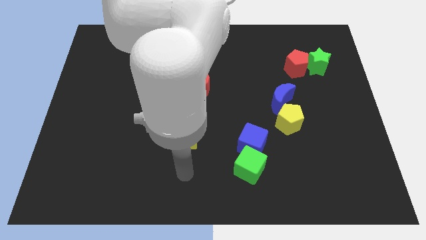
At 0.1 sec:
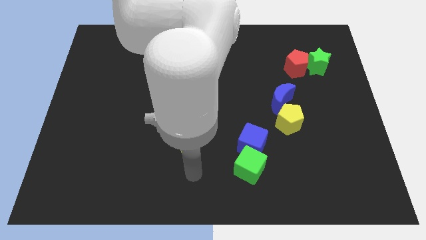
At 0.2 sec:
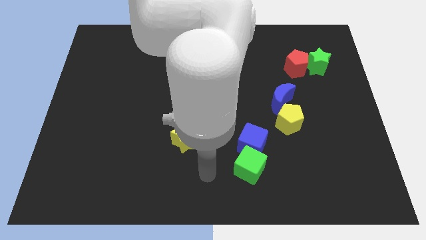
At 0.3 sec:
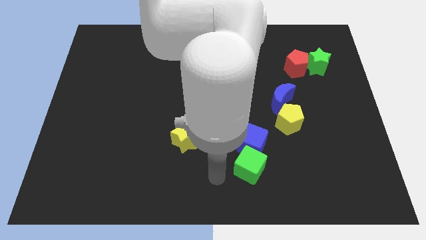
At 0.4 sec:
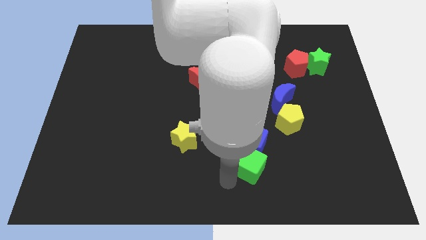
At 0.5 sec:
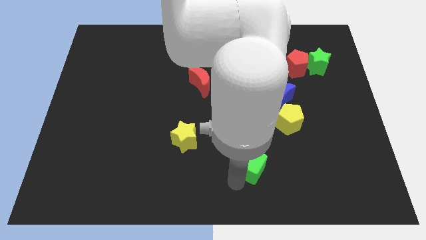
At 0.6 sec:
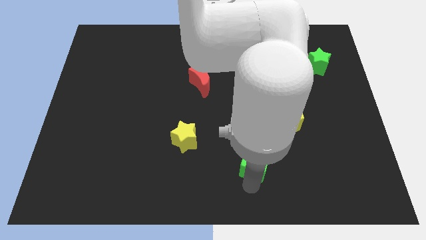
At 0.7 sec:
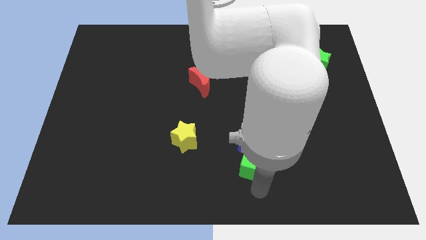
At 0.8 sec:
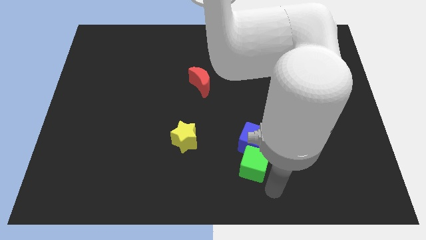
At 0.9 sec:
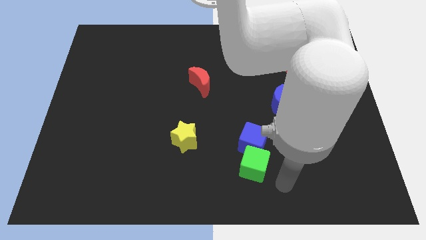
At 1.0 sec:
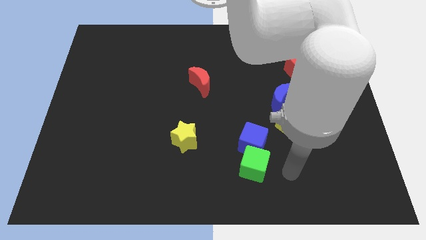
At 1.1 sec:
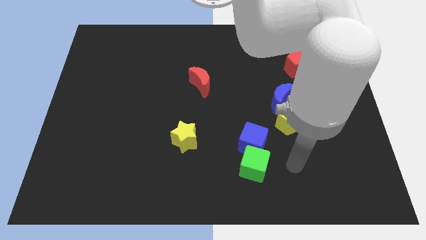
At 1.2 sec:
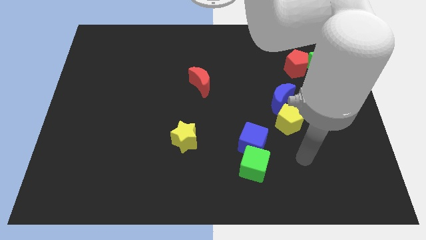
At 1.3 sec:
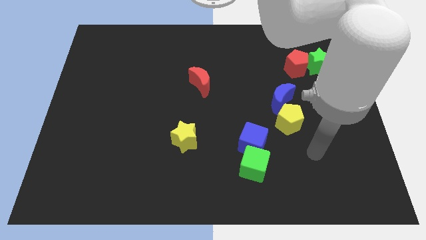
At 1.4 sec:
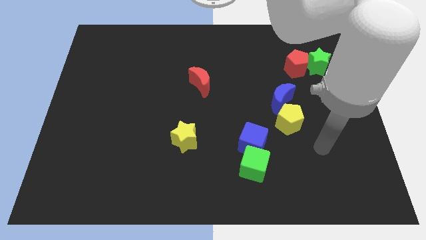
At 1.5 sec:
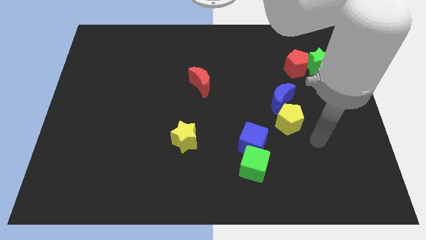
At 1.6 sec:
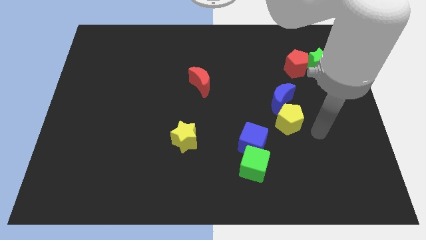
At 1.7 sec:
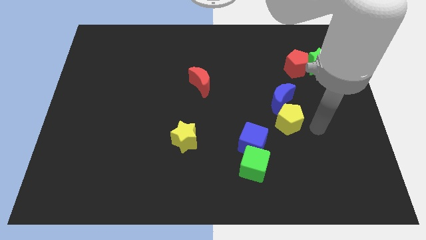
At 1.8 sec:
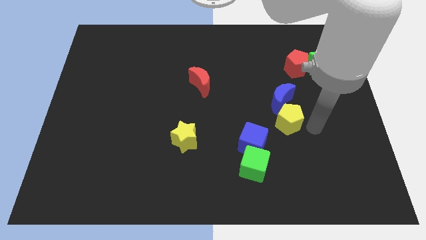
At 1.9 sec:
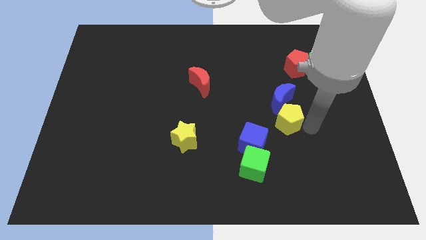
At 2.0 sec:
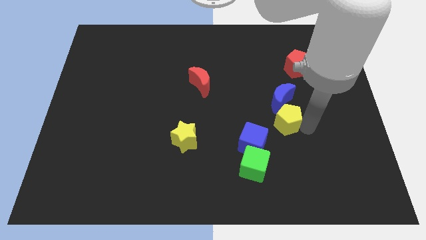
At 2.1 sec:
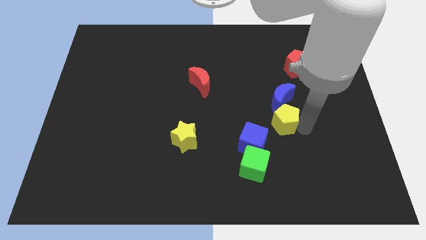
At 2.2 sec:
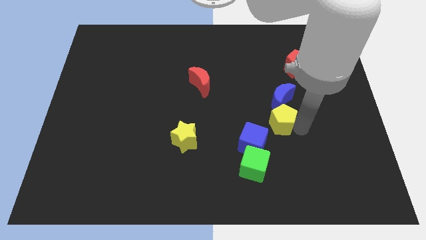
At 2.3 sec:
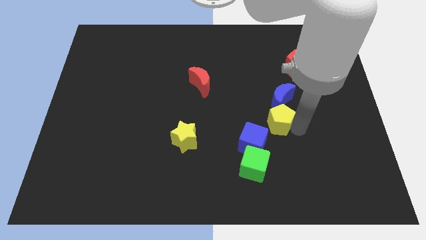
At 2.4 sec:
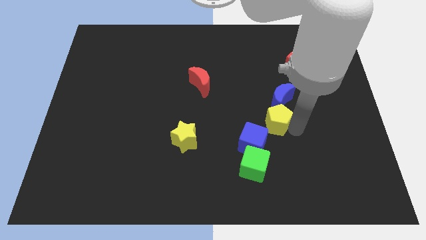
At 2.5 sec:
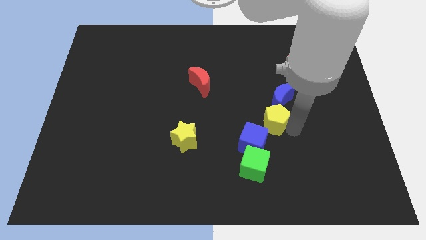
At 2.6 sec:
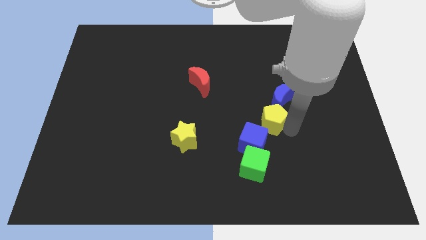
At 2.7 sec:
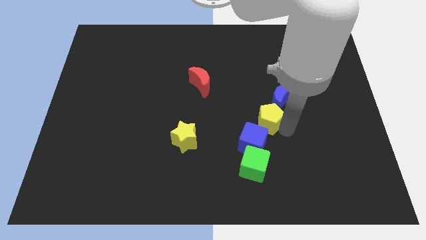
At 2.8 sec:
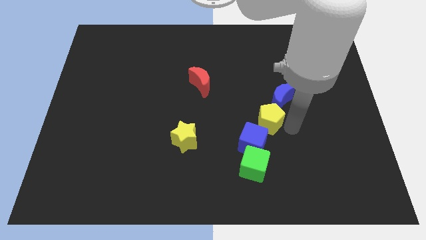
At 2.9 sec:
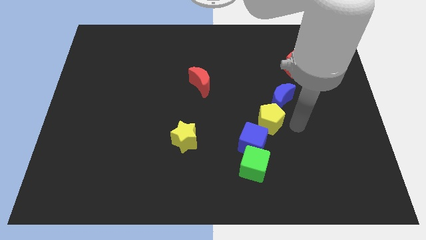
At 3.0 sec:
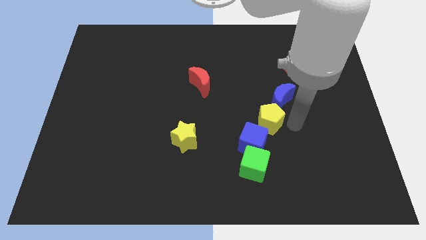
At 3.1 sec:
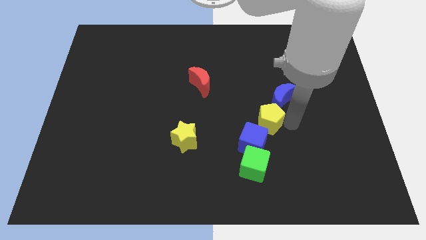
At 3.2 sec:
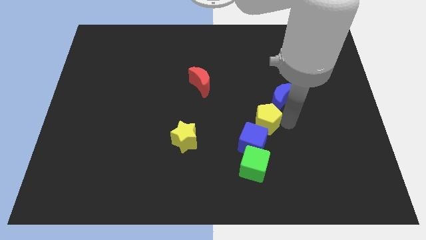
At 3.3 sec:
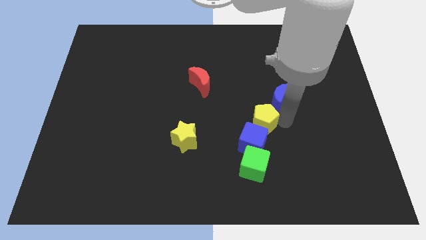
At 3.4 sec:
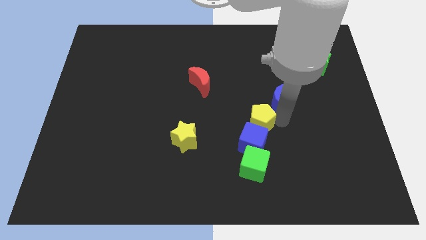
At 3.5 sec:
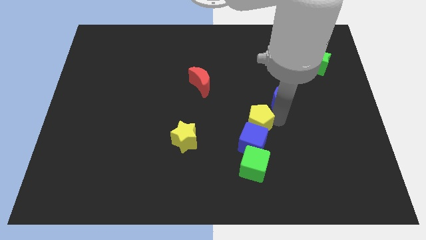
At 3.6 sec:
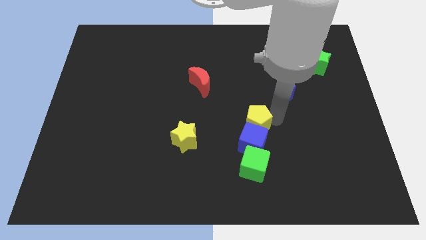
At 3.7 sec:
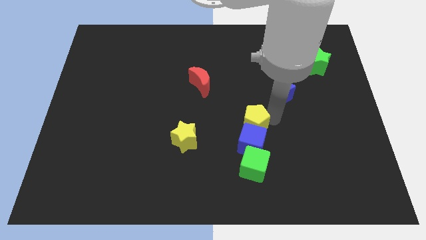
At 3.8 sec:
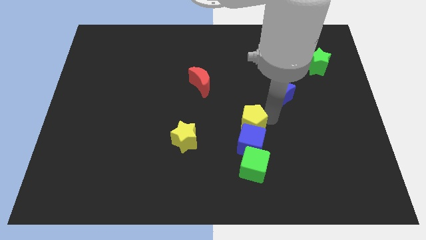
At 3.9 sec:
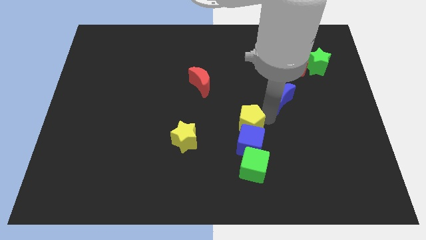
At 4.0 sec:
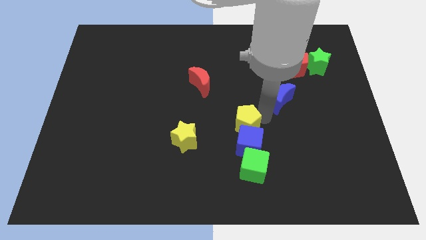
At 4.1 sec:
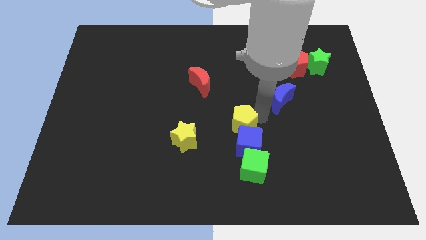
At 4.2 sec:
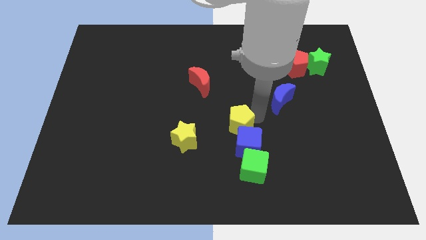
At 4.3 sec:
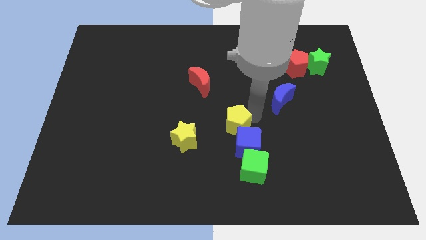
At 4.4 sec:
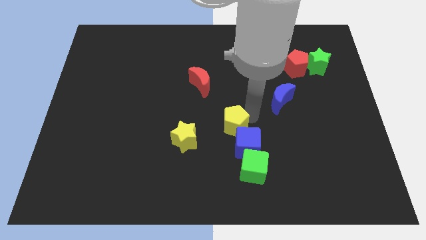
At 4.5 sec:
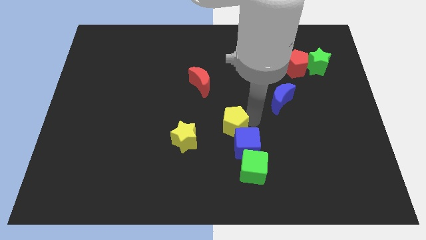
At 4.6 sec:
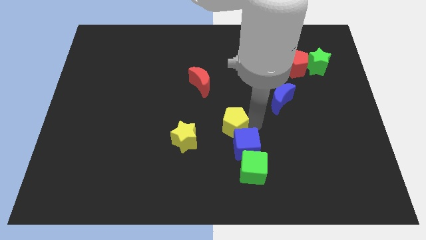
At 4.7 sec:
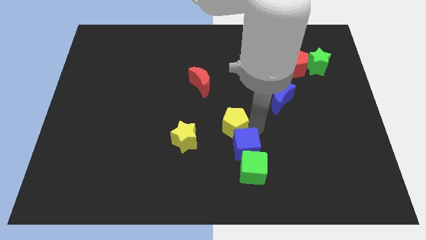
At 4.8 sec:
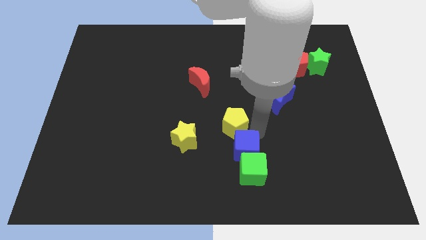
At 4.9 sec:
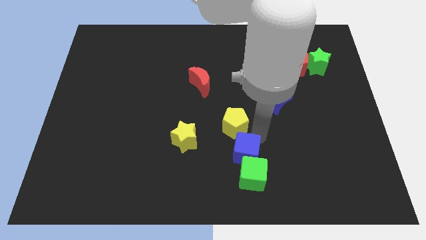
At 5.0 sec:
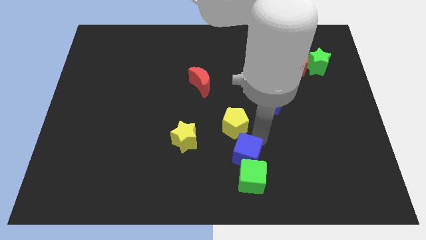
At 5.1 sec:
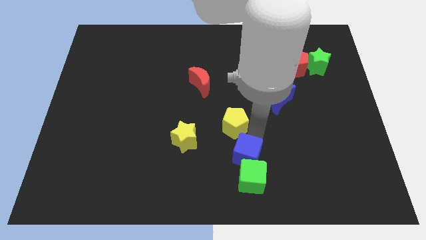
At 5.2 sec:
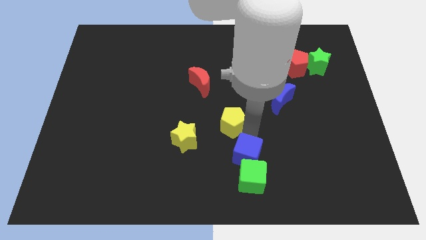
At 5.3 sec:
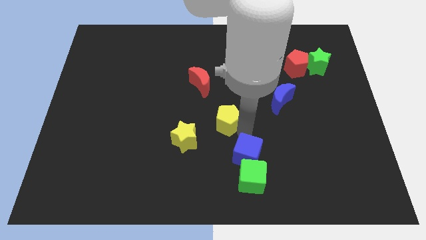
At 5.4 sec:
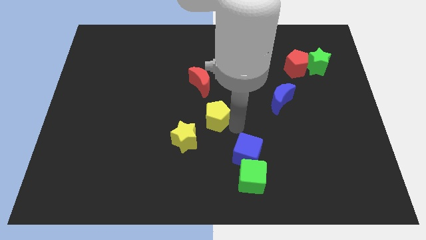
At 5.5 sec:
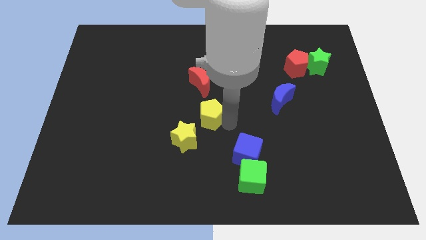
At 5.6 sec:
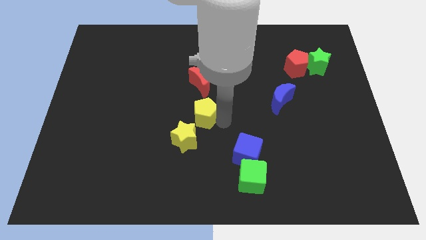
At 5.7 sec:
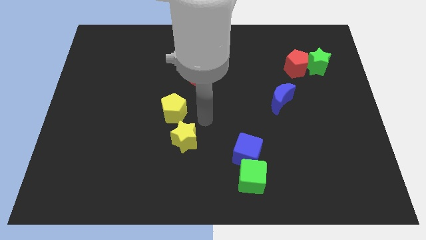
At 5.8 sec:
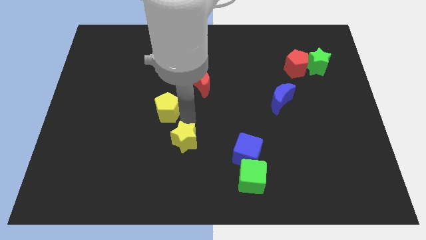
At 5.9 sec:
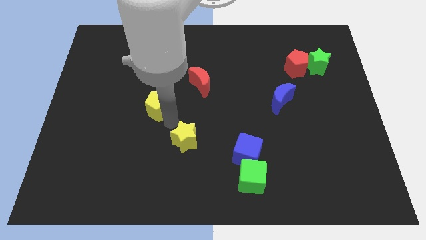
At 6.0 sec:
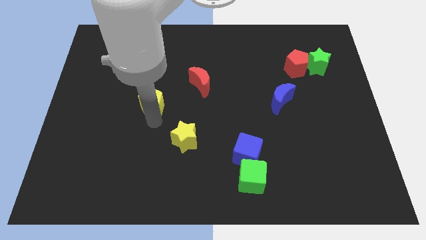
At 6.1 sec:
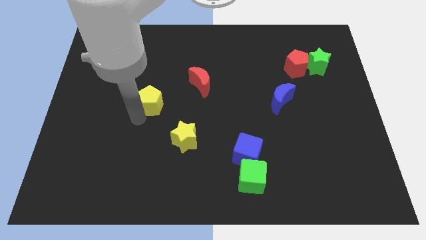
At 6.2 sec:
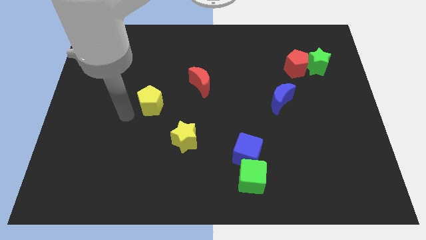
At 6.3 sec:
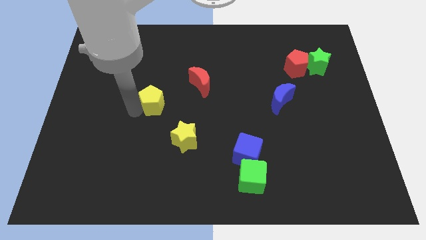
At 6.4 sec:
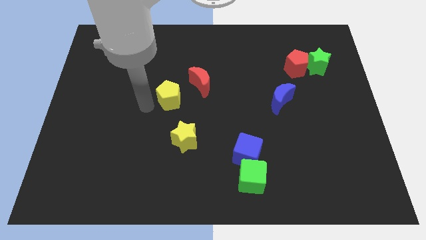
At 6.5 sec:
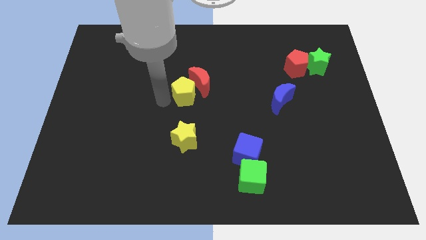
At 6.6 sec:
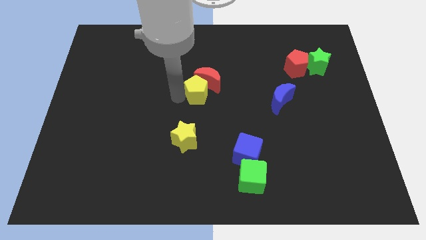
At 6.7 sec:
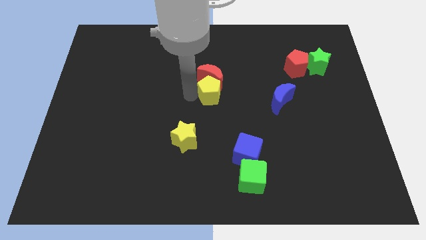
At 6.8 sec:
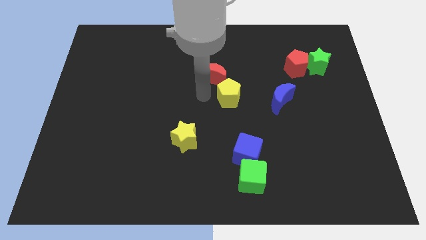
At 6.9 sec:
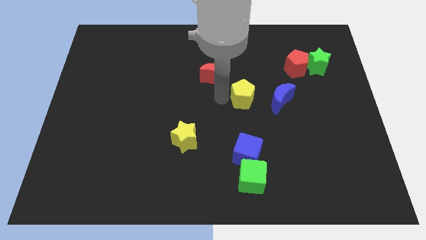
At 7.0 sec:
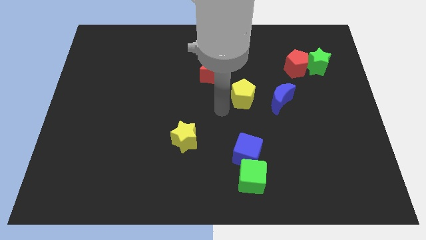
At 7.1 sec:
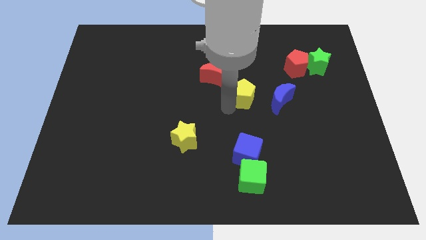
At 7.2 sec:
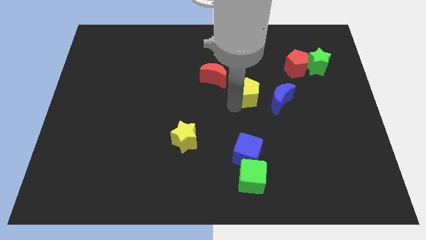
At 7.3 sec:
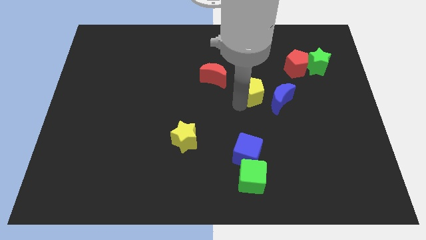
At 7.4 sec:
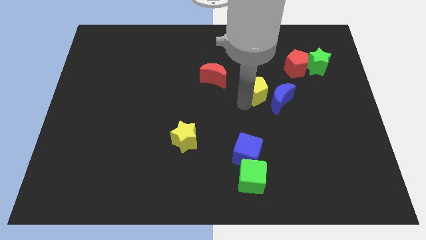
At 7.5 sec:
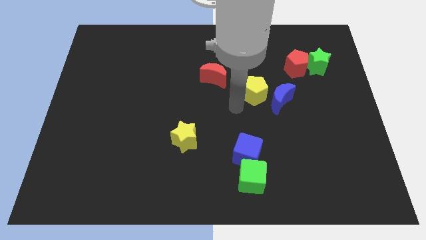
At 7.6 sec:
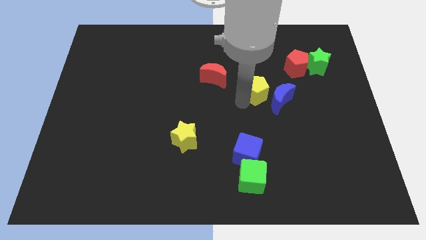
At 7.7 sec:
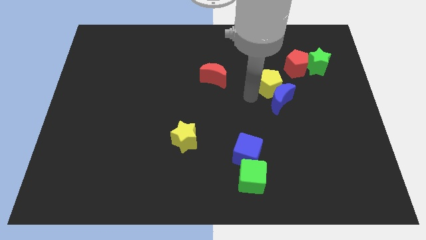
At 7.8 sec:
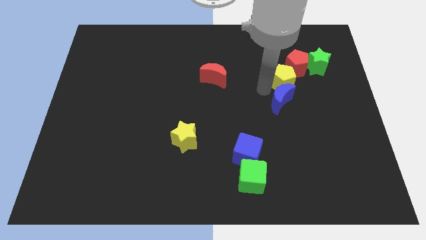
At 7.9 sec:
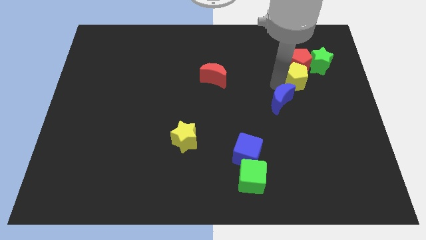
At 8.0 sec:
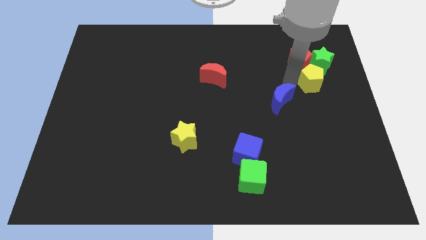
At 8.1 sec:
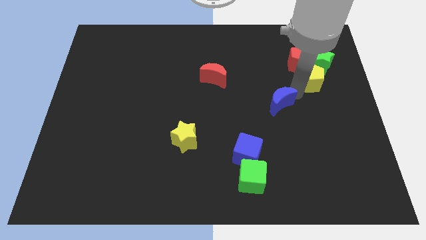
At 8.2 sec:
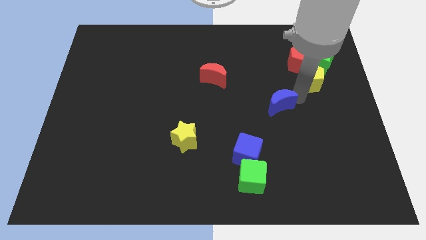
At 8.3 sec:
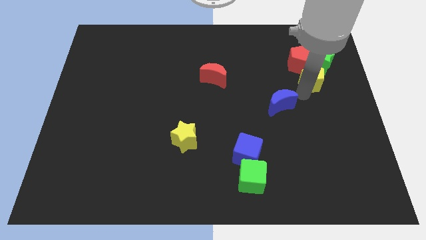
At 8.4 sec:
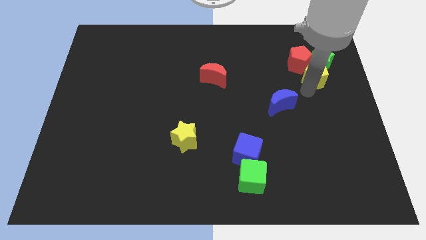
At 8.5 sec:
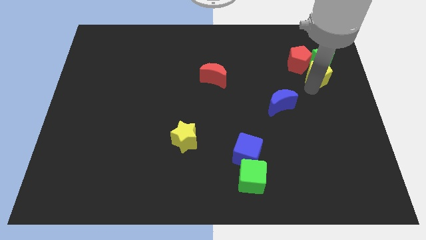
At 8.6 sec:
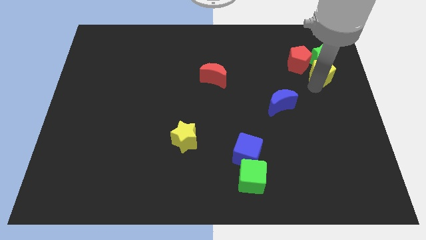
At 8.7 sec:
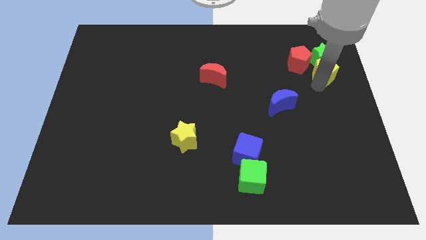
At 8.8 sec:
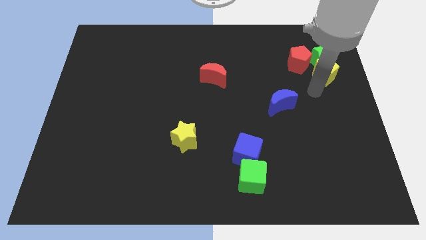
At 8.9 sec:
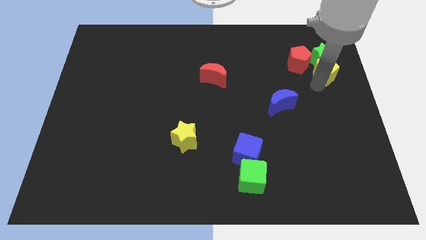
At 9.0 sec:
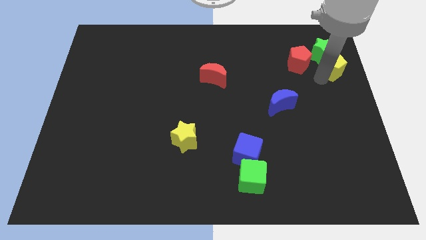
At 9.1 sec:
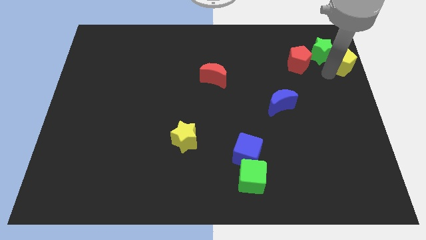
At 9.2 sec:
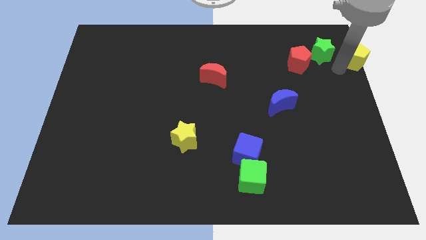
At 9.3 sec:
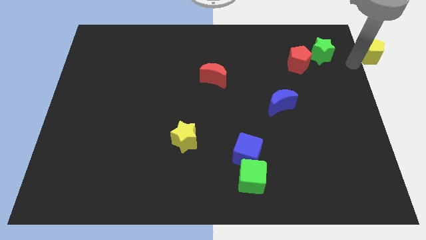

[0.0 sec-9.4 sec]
slide the yellow pentagon to the upper right corner
